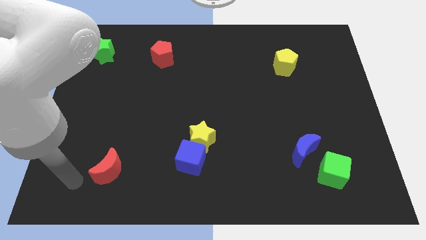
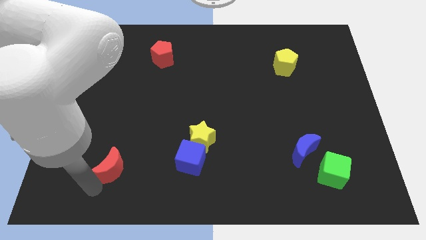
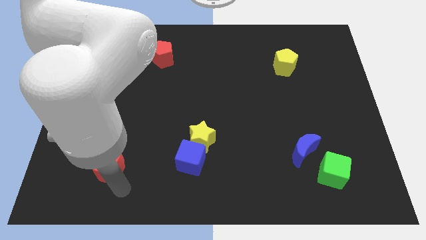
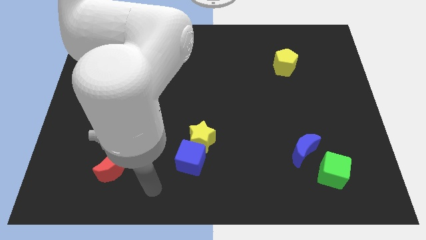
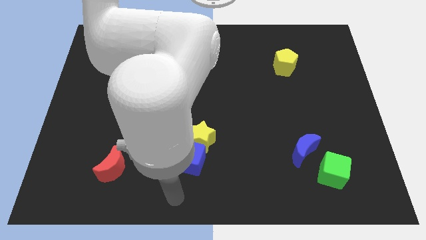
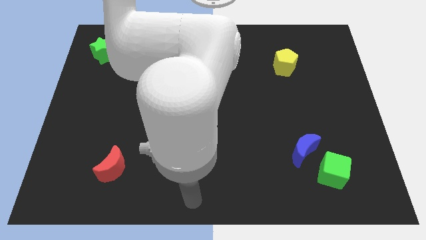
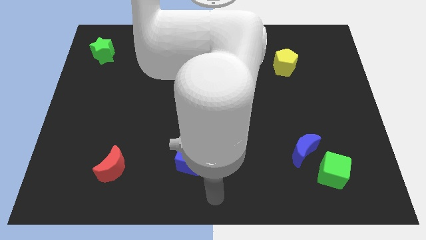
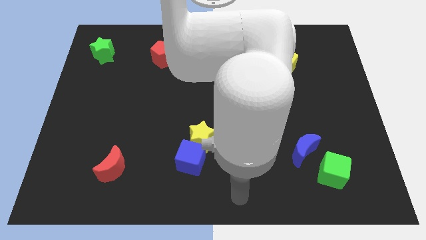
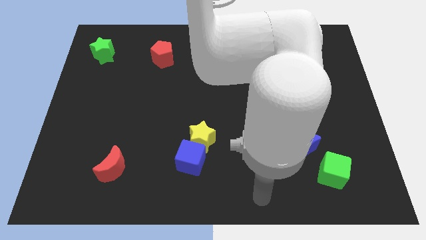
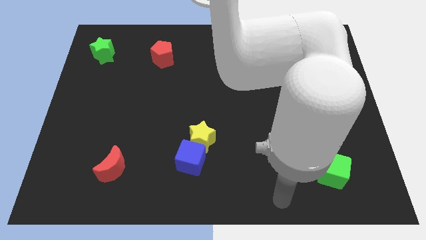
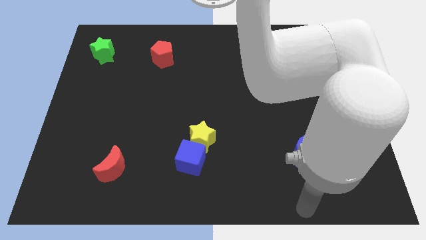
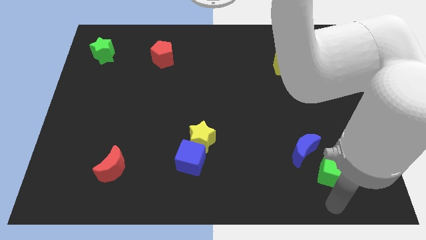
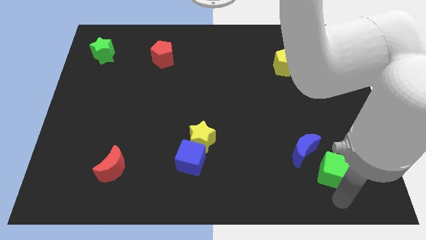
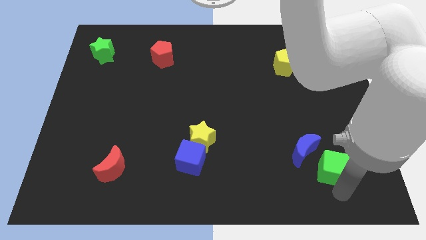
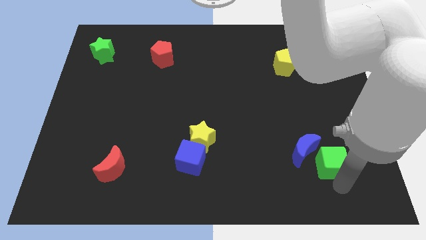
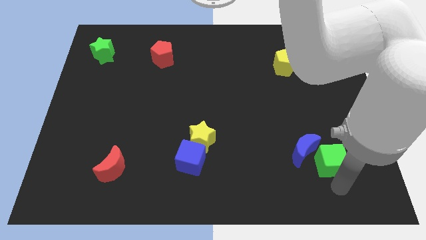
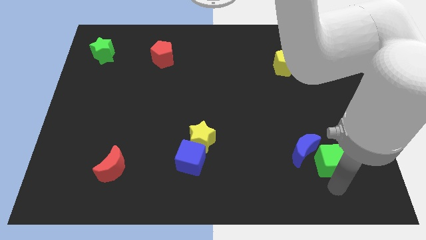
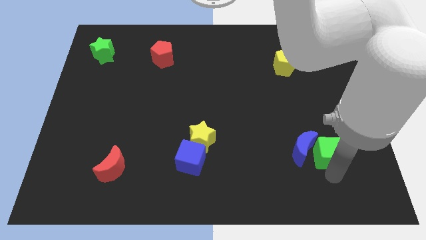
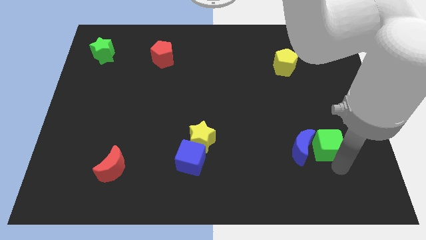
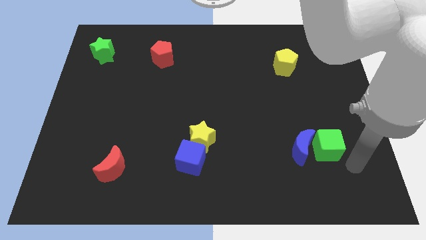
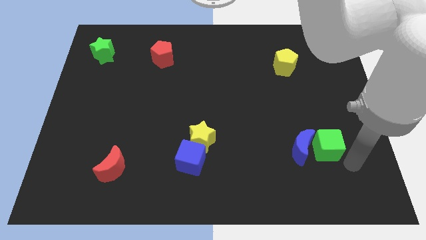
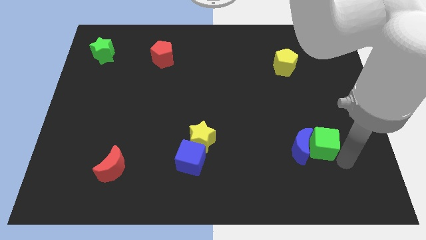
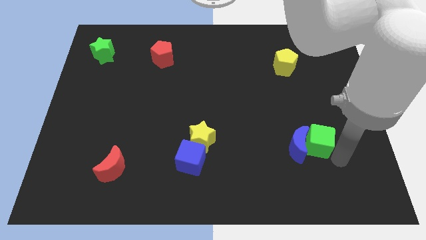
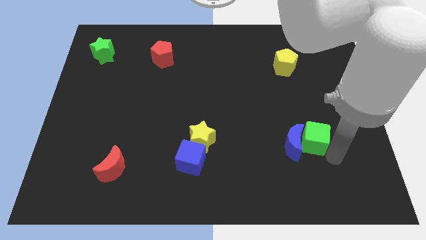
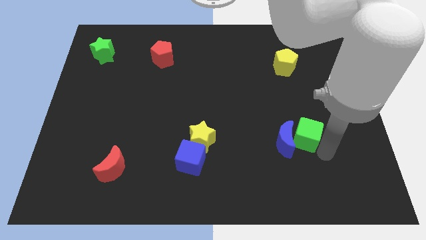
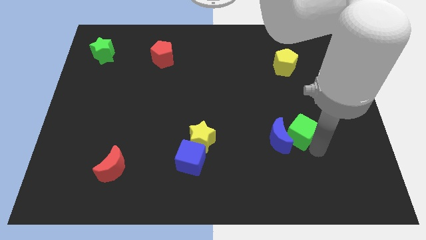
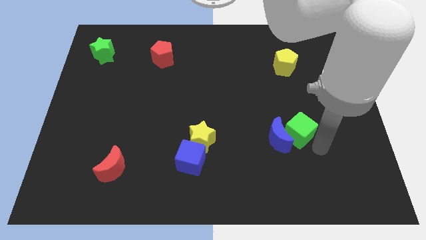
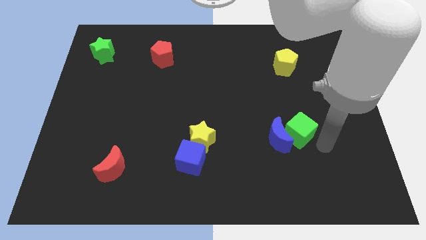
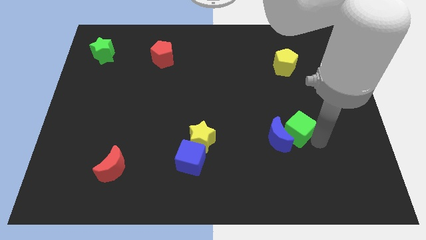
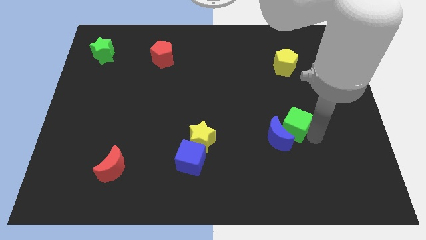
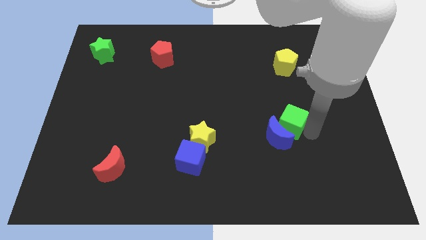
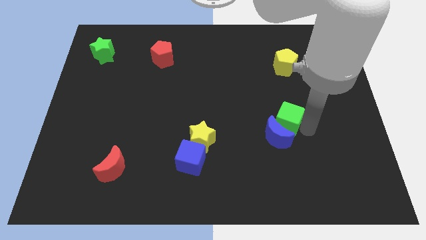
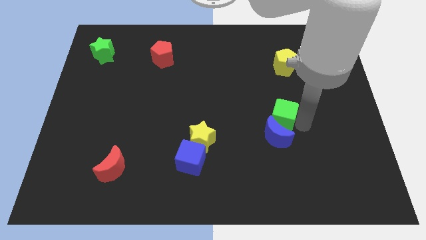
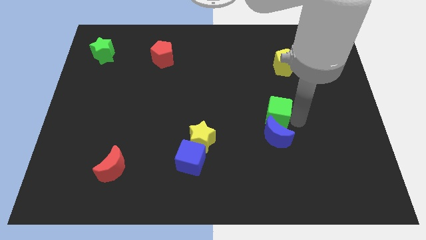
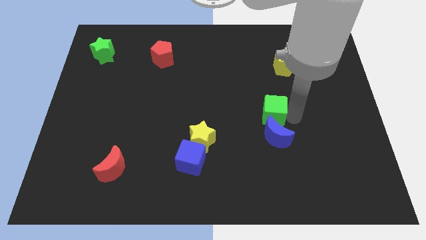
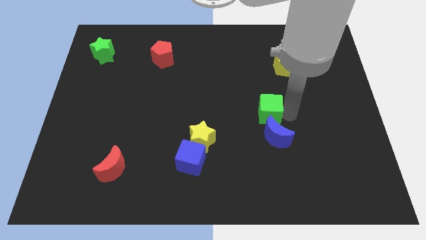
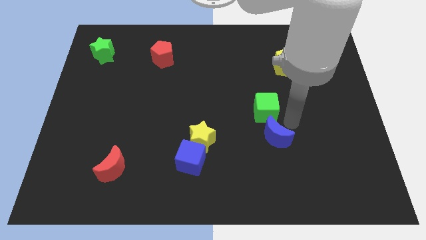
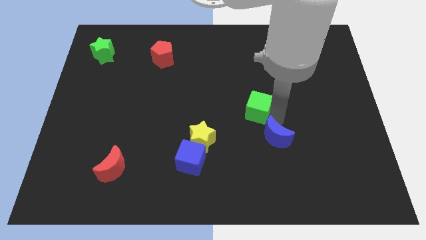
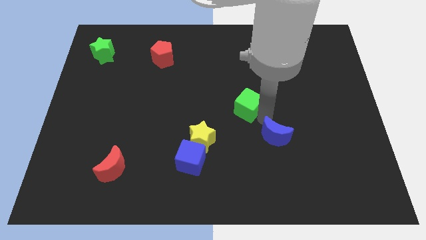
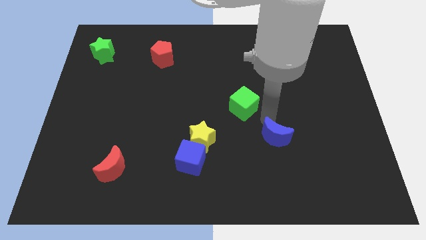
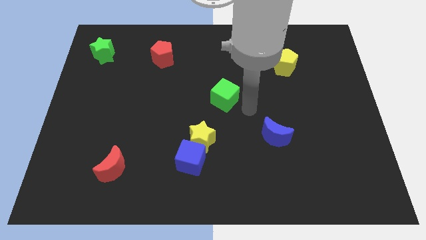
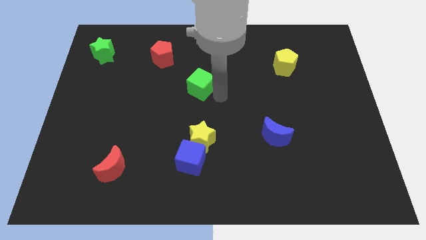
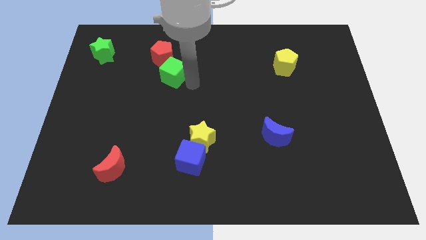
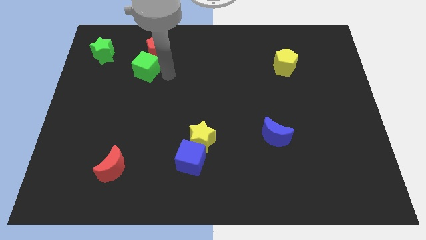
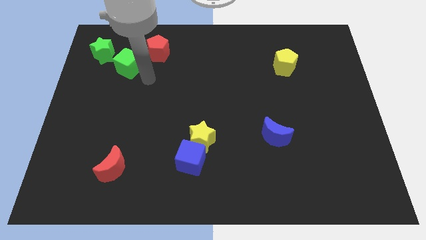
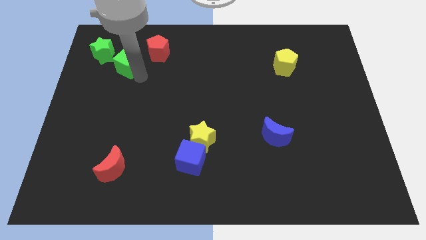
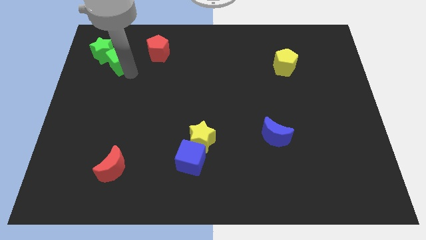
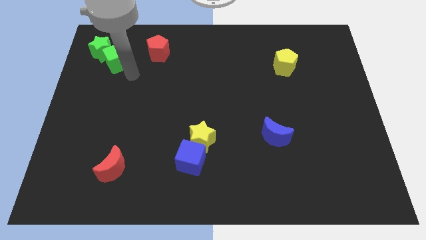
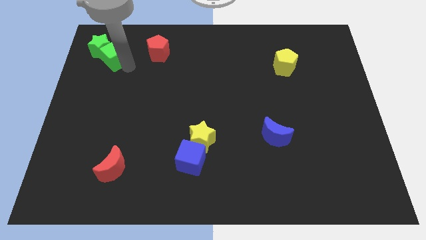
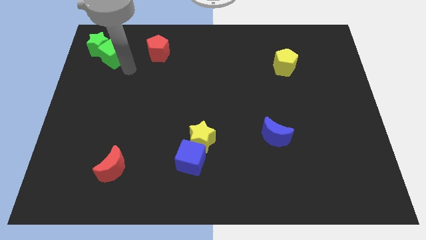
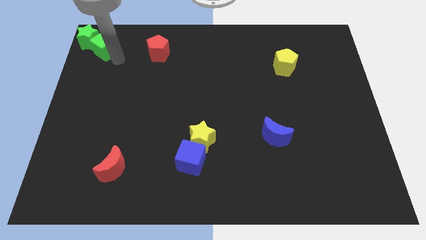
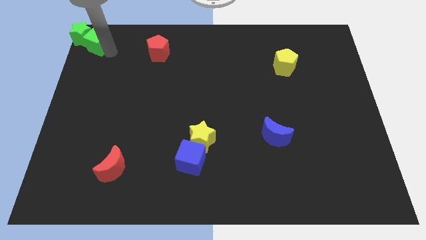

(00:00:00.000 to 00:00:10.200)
push the green cube to the top left corner

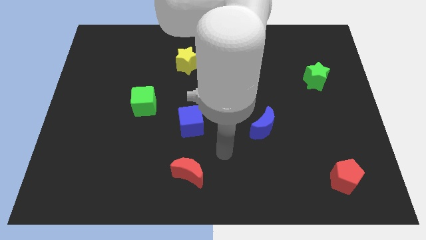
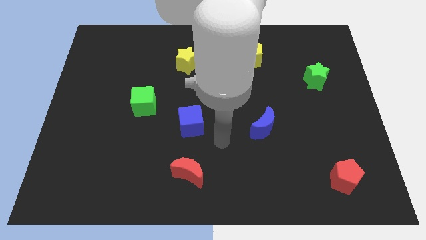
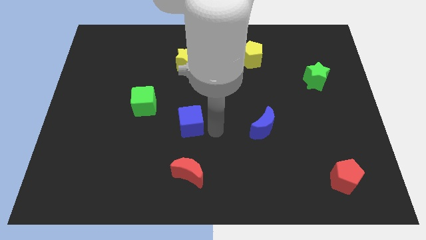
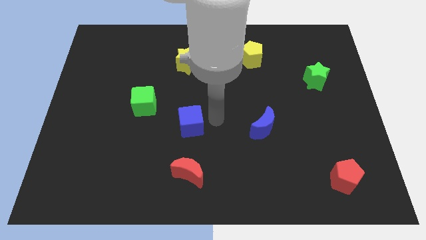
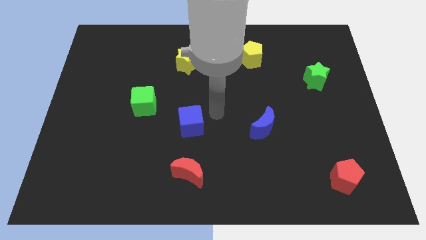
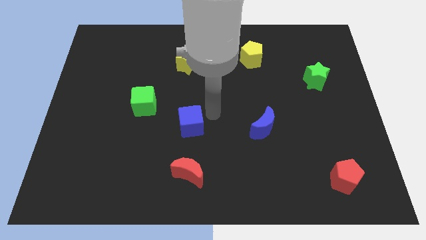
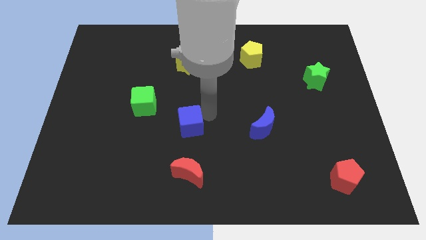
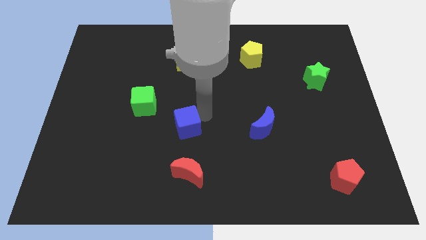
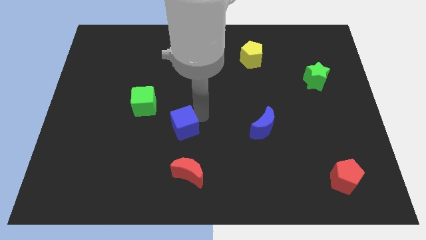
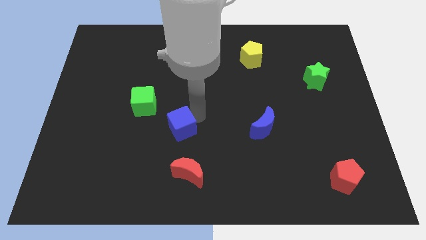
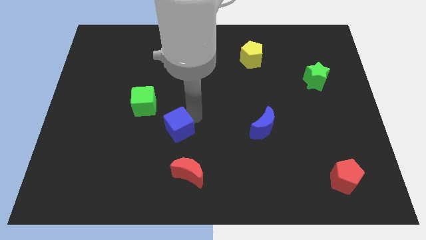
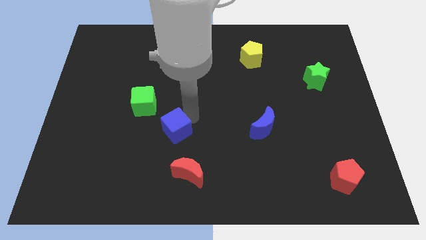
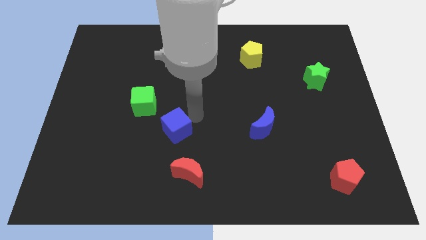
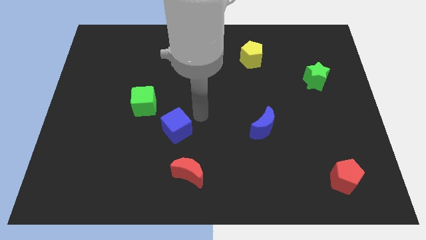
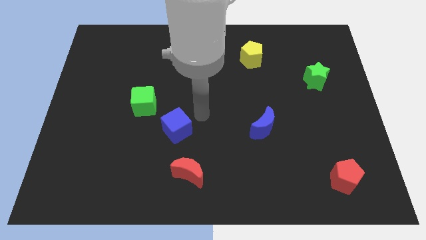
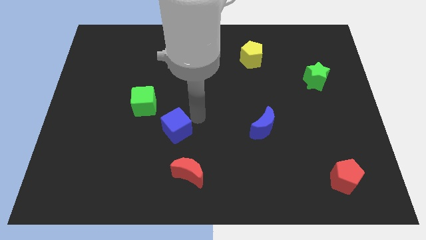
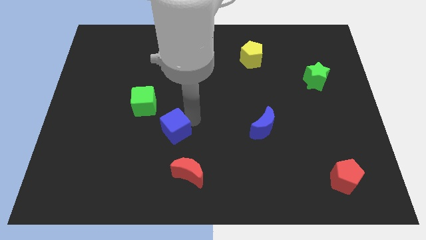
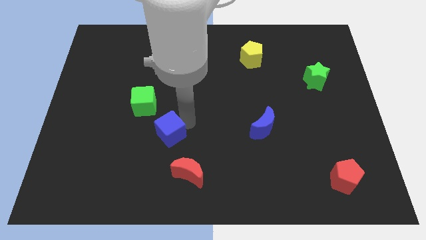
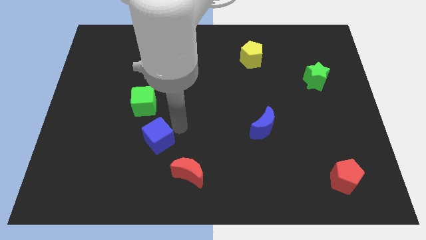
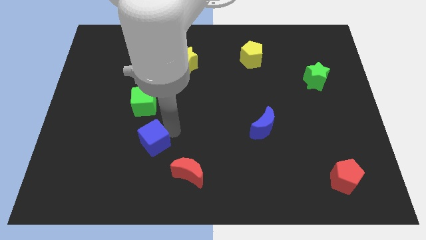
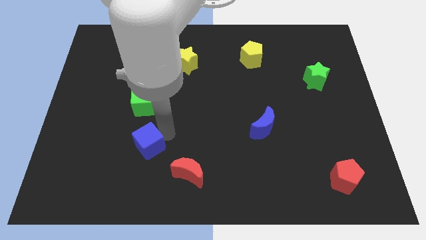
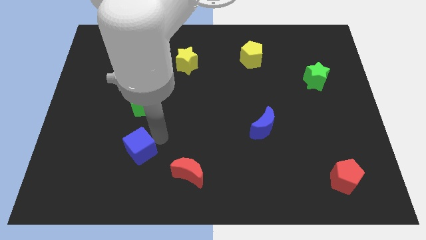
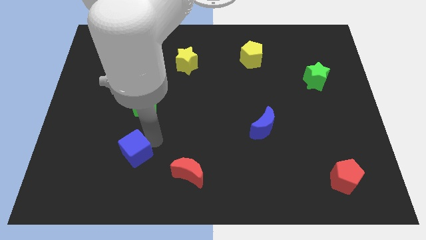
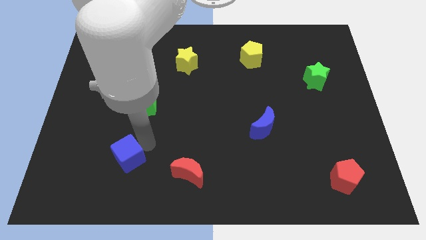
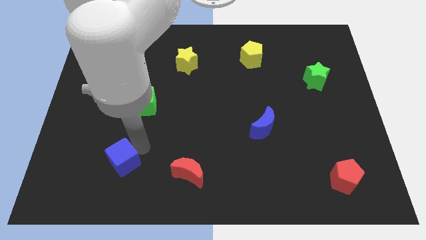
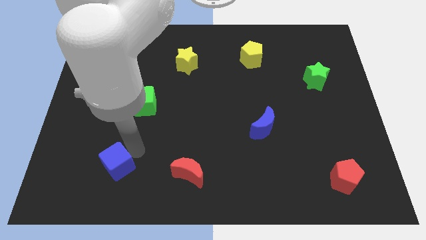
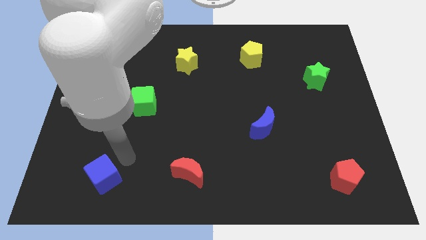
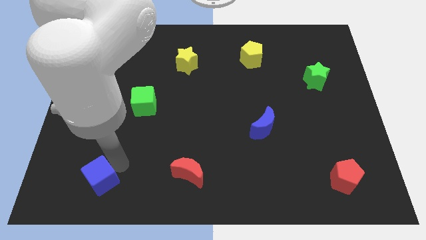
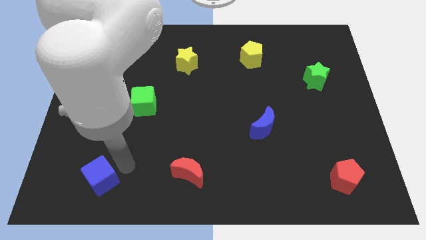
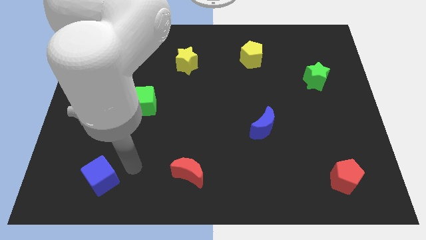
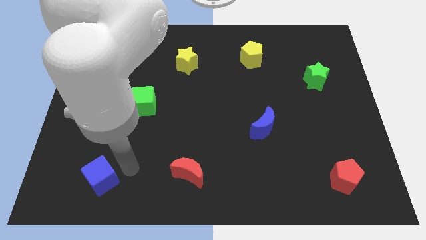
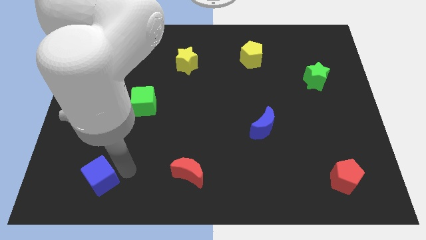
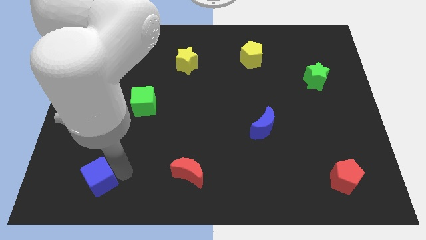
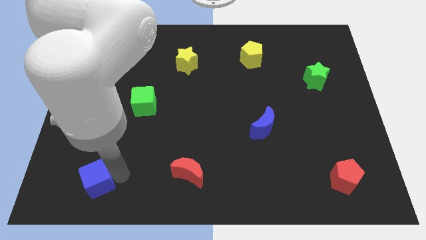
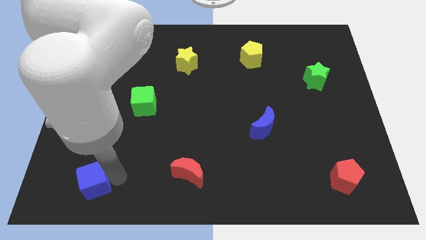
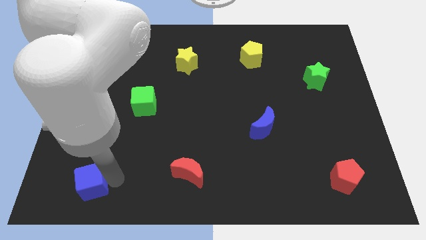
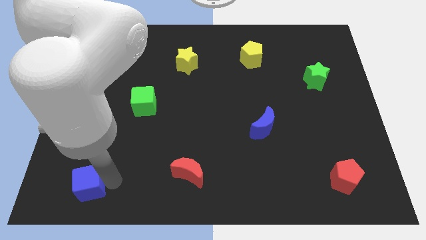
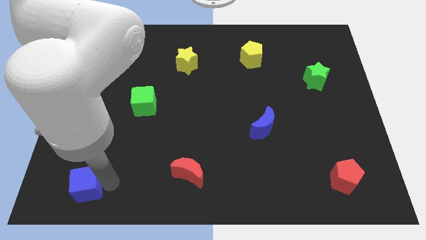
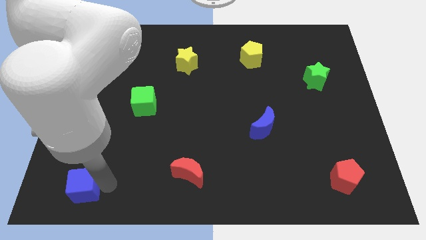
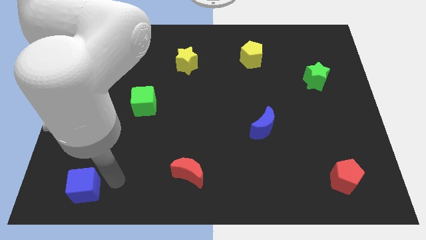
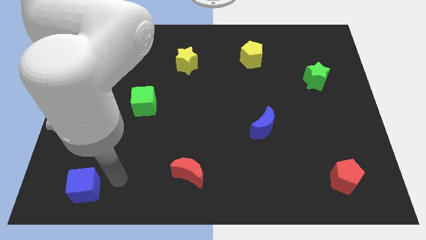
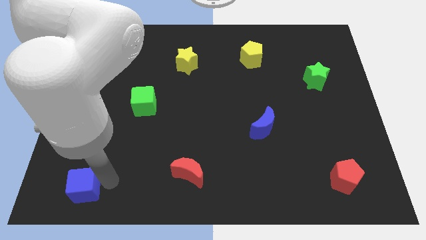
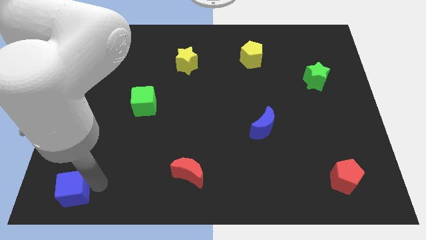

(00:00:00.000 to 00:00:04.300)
slide the blue cube to the bottom left
